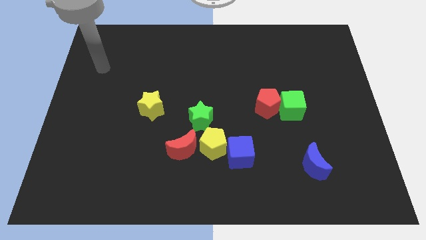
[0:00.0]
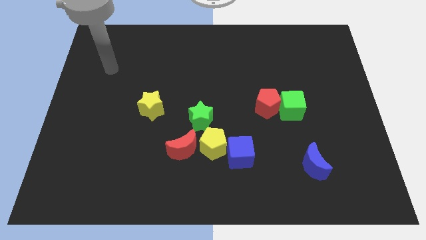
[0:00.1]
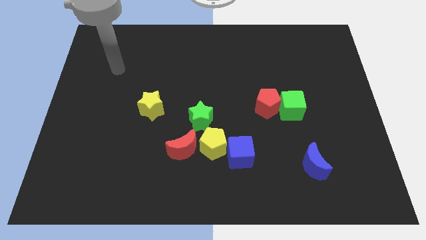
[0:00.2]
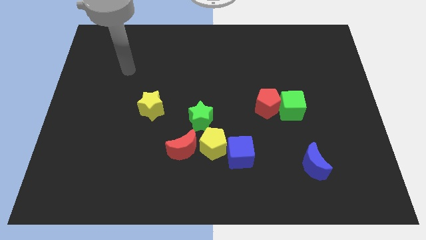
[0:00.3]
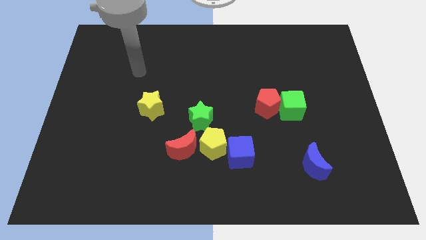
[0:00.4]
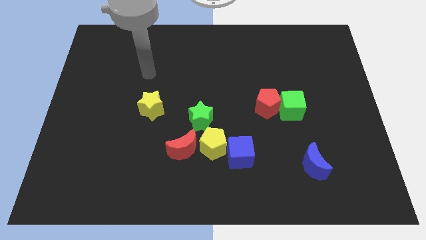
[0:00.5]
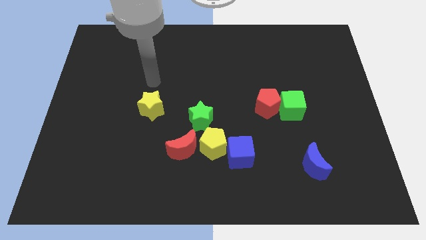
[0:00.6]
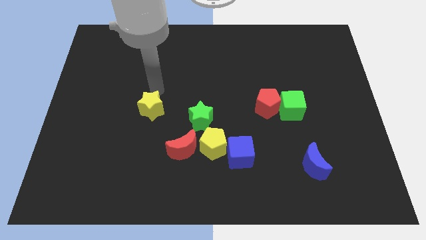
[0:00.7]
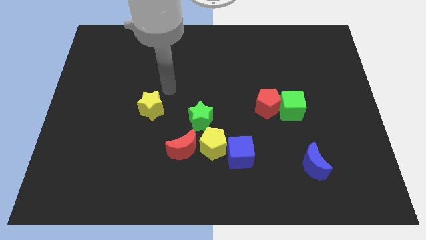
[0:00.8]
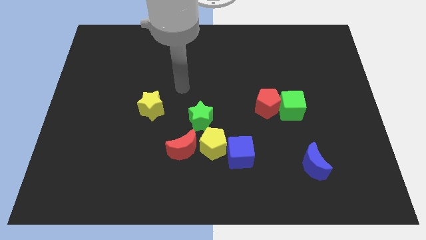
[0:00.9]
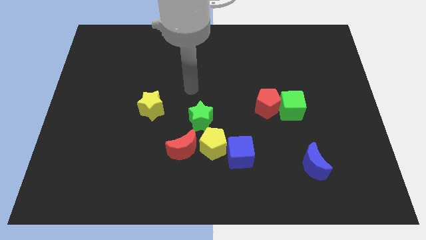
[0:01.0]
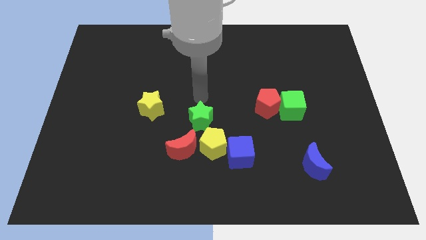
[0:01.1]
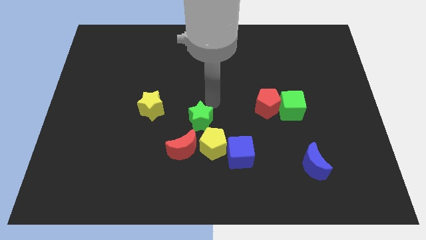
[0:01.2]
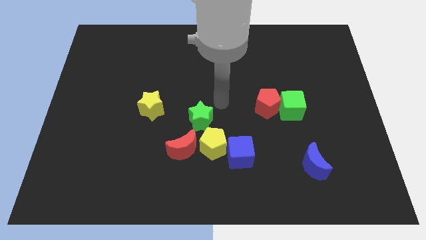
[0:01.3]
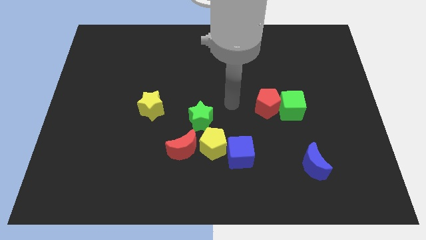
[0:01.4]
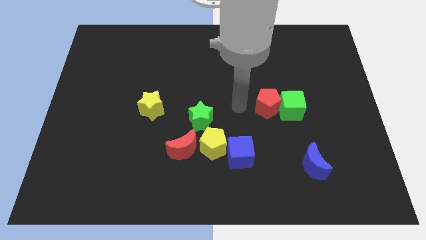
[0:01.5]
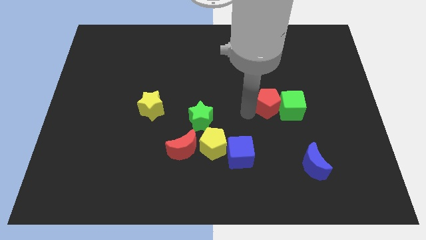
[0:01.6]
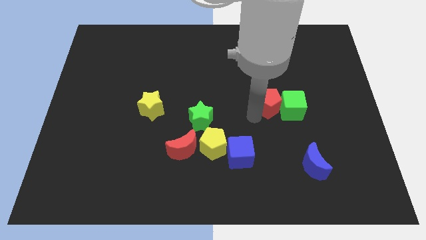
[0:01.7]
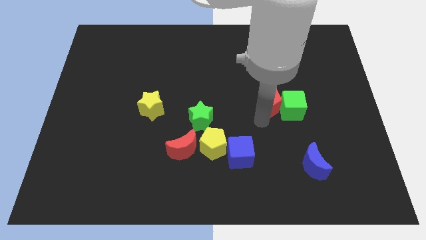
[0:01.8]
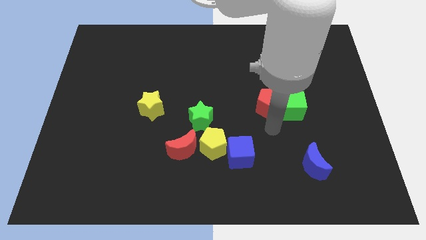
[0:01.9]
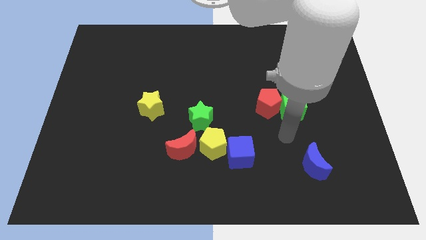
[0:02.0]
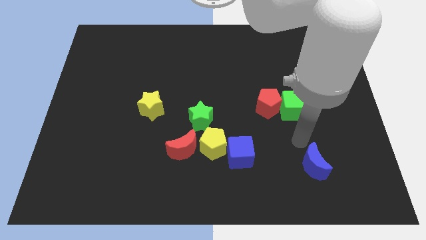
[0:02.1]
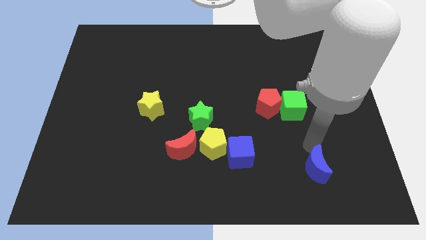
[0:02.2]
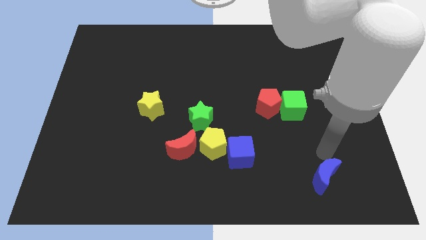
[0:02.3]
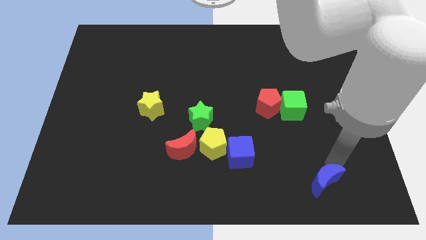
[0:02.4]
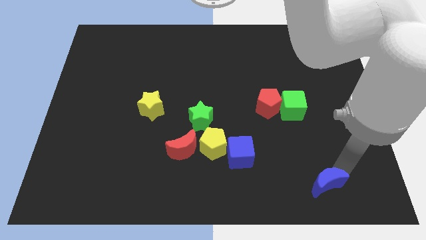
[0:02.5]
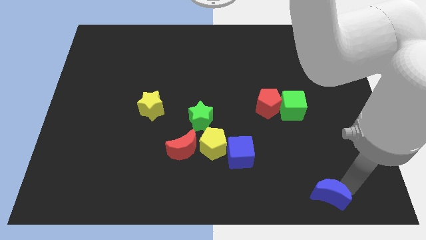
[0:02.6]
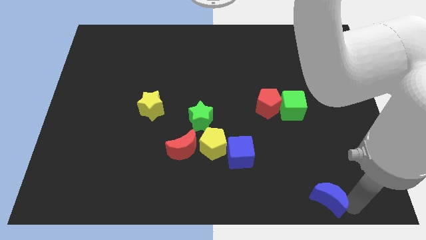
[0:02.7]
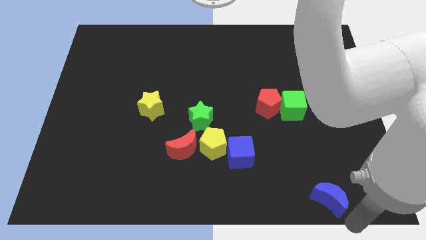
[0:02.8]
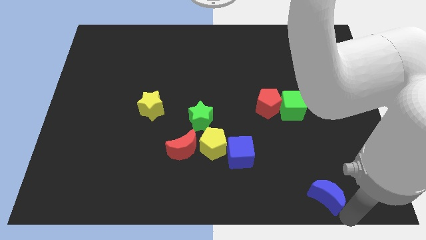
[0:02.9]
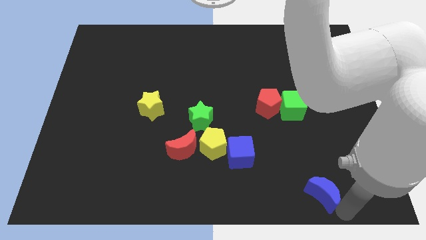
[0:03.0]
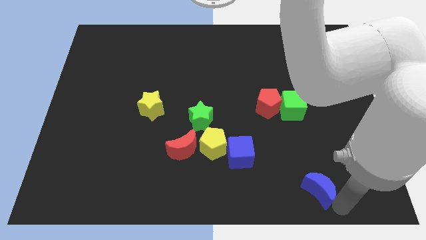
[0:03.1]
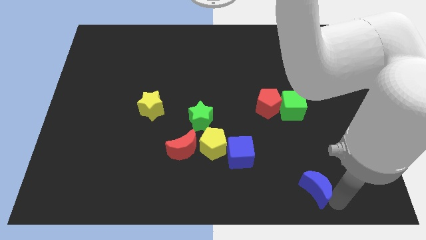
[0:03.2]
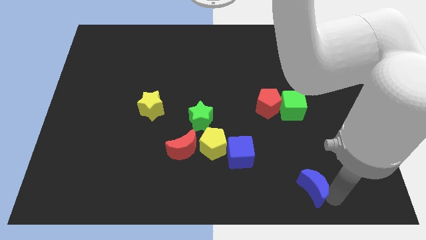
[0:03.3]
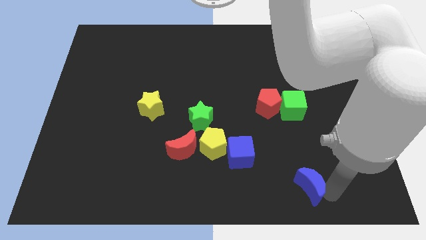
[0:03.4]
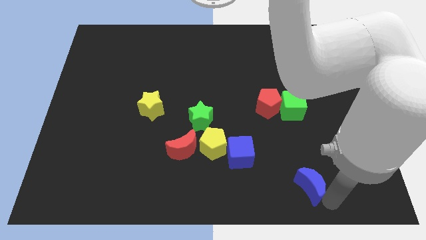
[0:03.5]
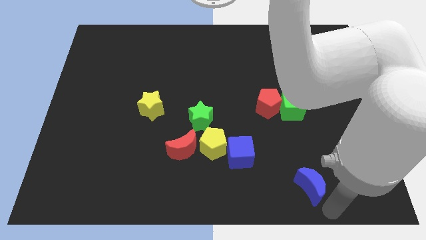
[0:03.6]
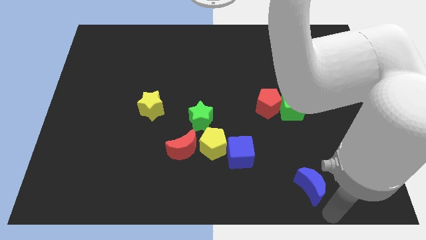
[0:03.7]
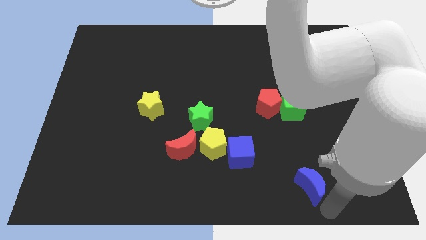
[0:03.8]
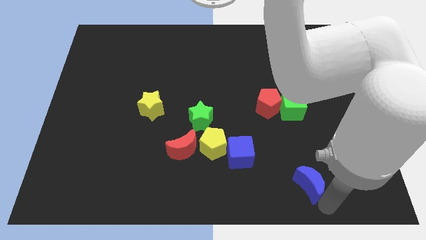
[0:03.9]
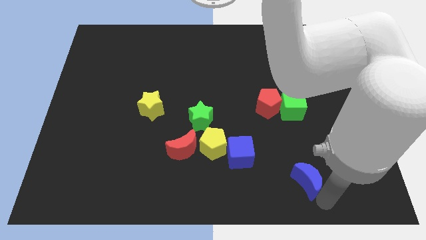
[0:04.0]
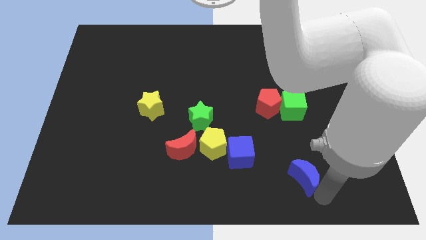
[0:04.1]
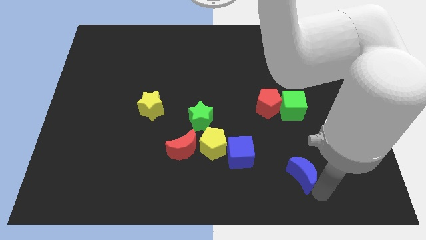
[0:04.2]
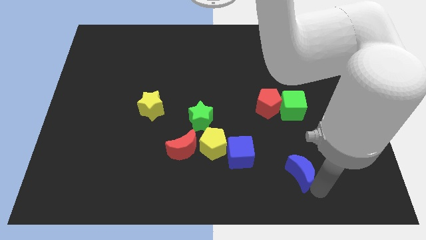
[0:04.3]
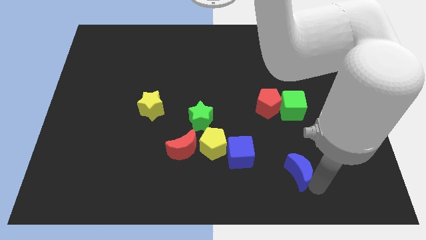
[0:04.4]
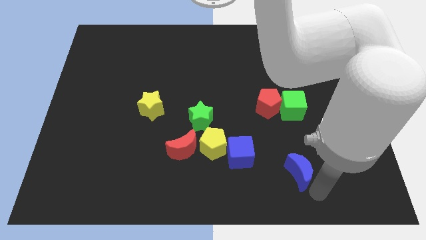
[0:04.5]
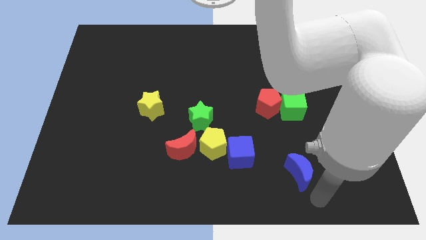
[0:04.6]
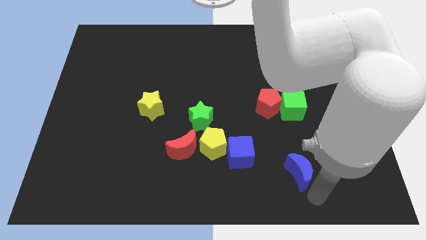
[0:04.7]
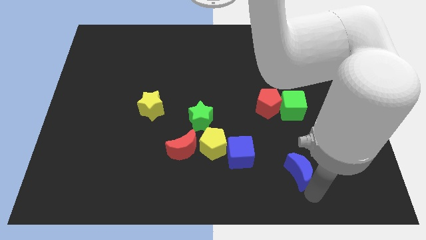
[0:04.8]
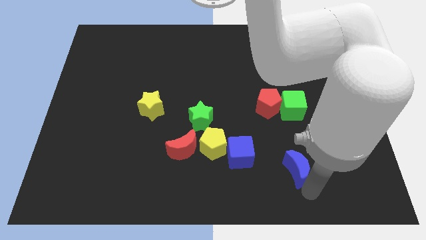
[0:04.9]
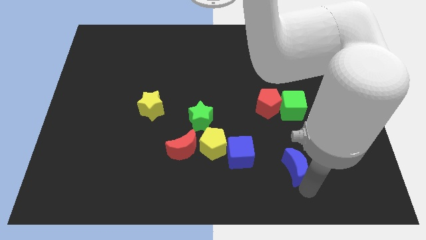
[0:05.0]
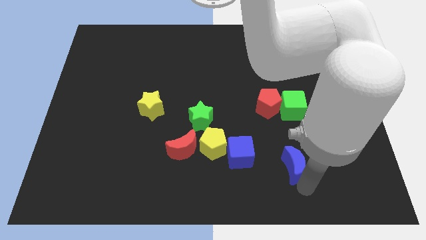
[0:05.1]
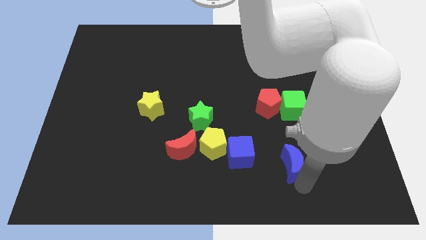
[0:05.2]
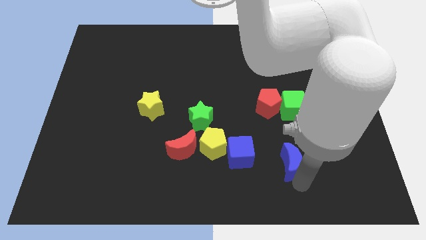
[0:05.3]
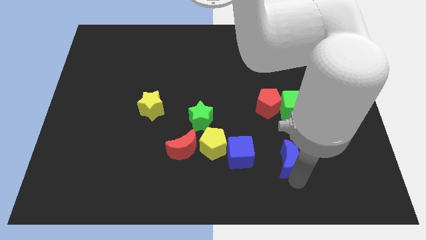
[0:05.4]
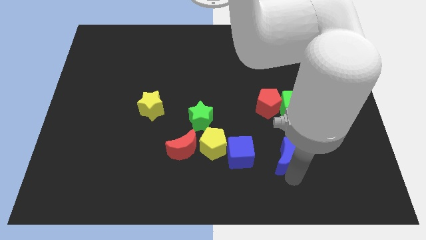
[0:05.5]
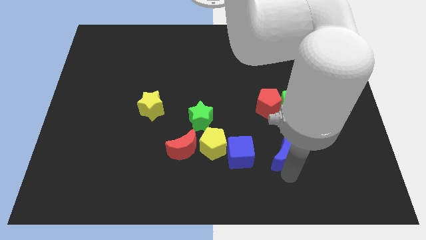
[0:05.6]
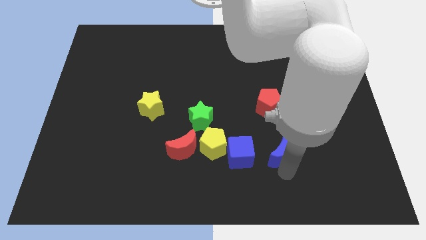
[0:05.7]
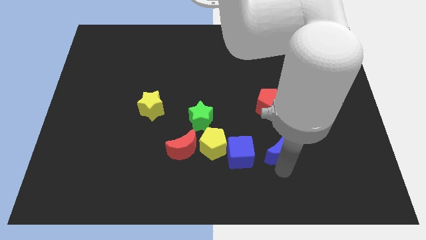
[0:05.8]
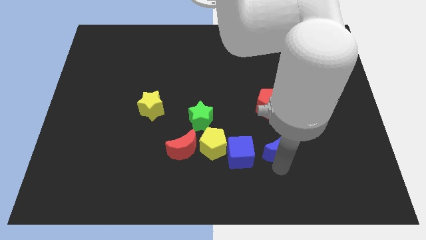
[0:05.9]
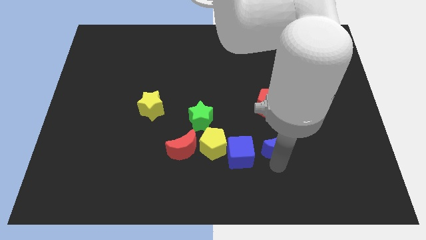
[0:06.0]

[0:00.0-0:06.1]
slide the blue moon to the top right side of the blue cube

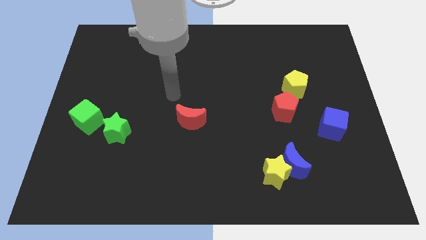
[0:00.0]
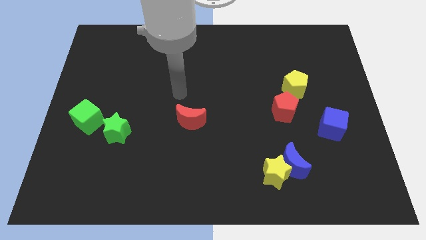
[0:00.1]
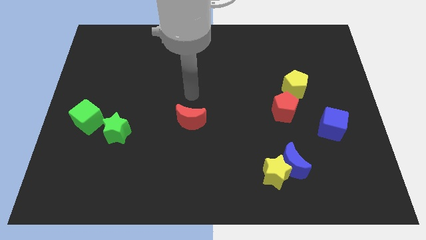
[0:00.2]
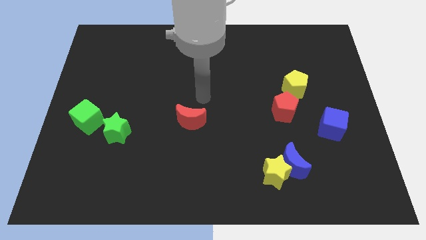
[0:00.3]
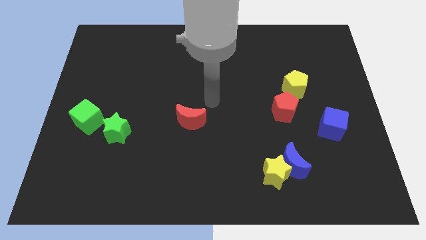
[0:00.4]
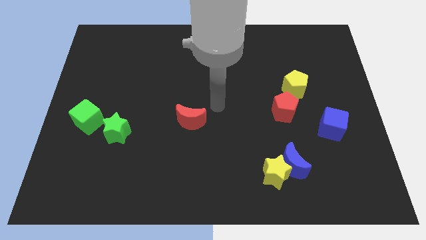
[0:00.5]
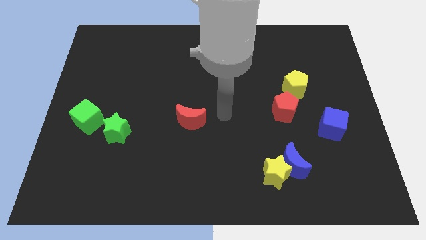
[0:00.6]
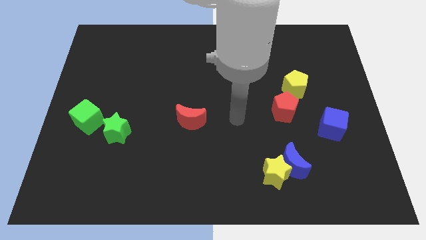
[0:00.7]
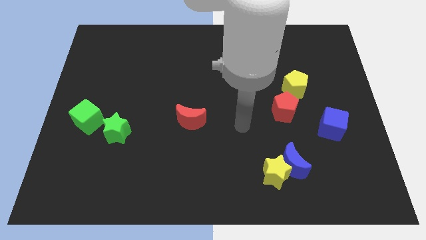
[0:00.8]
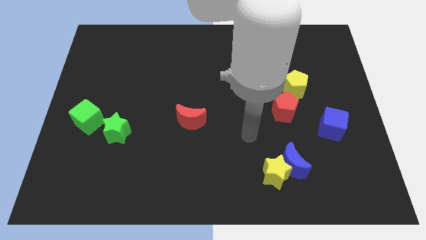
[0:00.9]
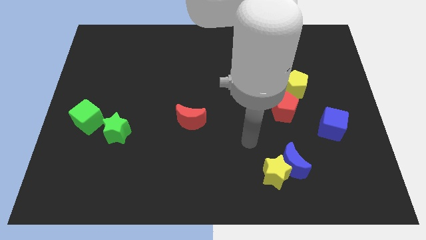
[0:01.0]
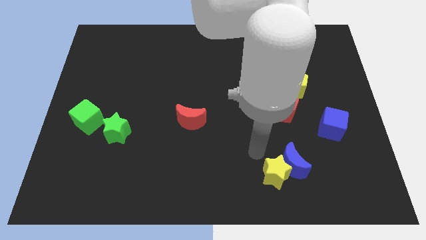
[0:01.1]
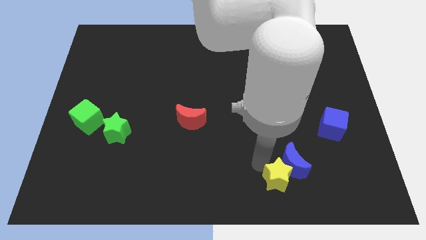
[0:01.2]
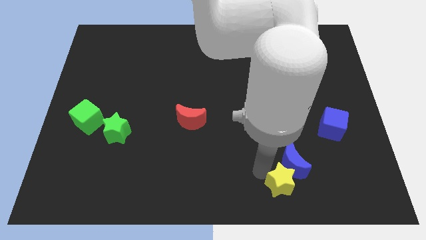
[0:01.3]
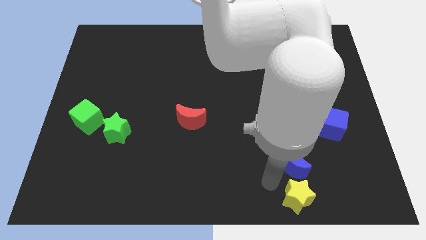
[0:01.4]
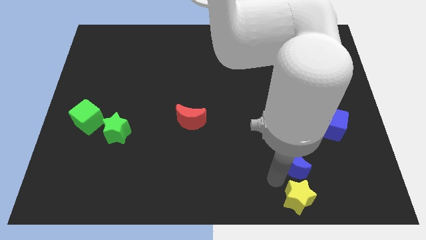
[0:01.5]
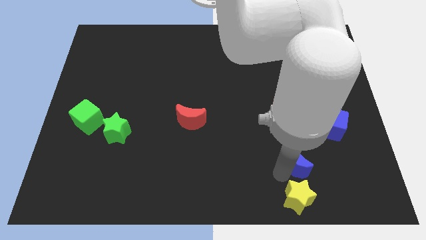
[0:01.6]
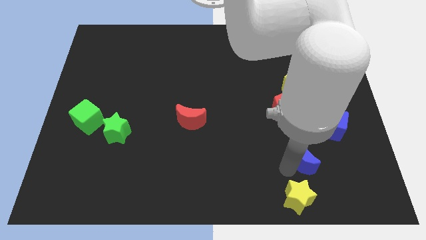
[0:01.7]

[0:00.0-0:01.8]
push the blue moon diagonally down and to the left of the blue cube
